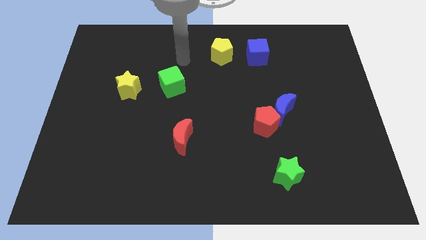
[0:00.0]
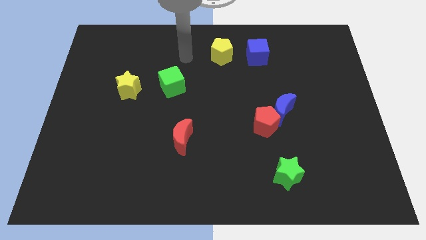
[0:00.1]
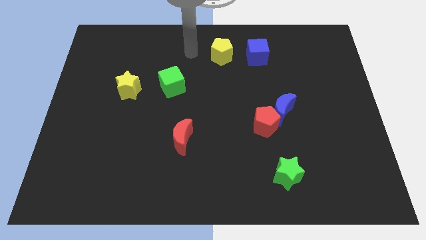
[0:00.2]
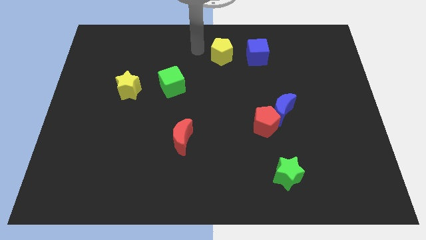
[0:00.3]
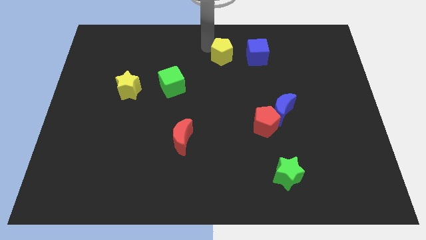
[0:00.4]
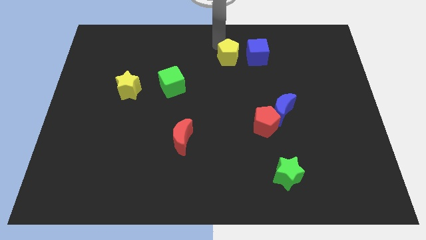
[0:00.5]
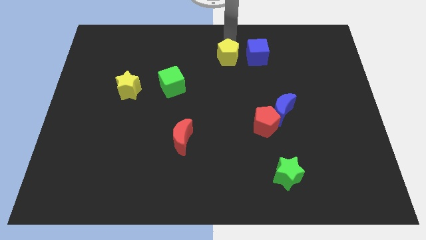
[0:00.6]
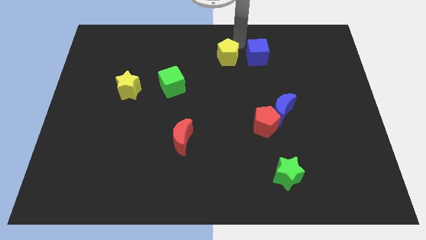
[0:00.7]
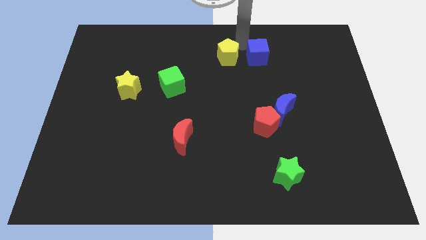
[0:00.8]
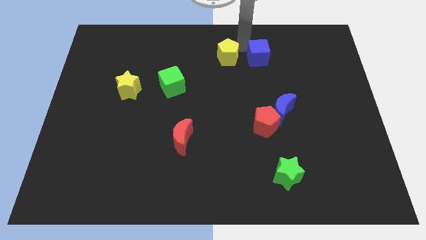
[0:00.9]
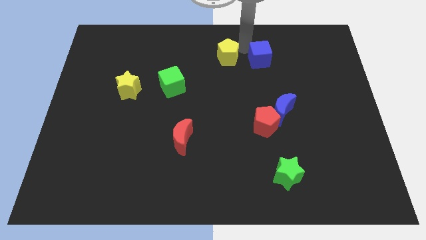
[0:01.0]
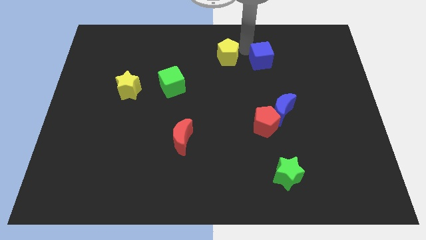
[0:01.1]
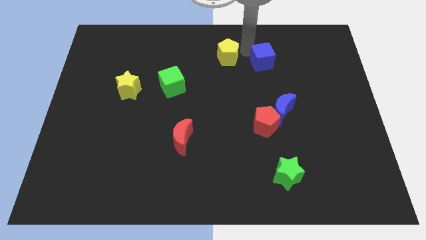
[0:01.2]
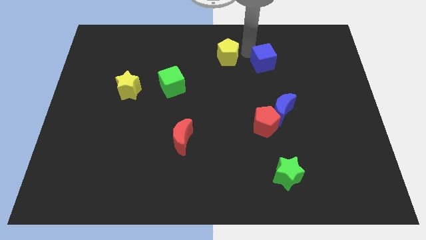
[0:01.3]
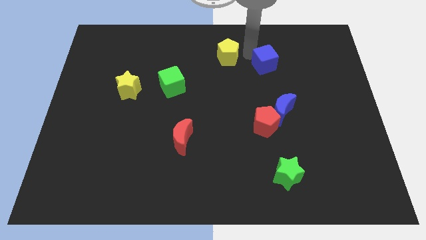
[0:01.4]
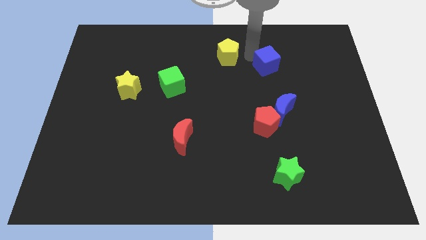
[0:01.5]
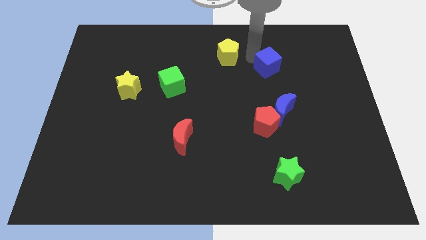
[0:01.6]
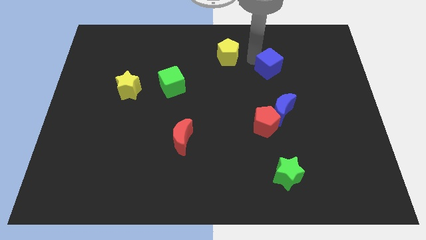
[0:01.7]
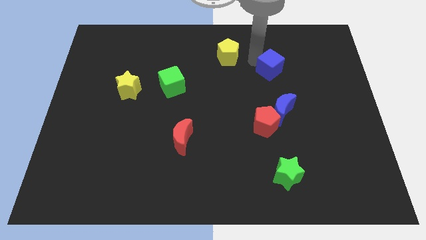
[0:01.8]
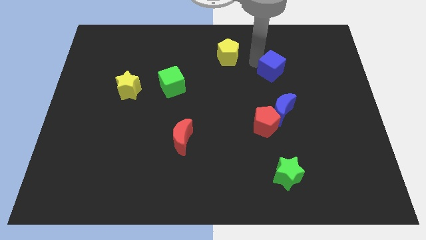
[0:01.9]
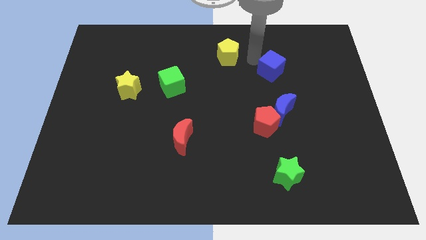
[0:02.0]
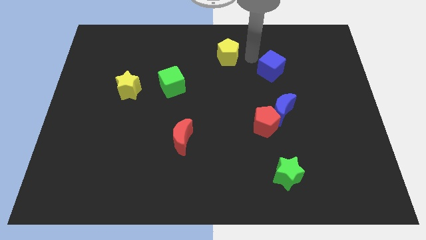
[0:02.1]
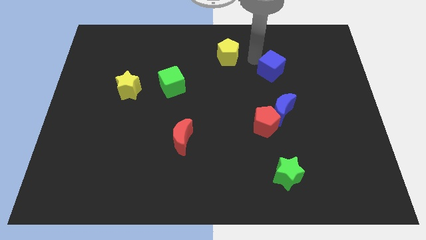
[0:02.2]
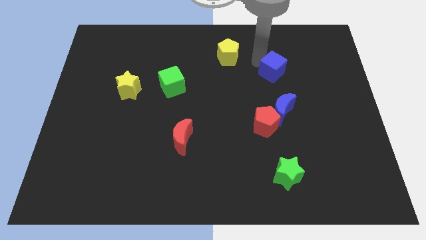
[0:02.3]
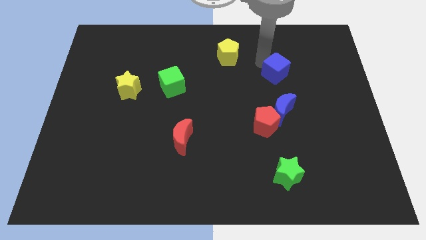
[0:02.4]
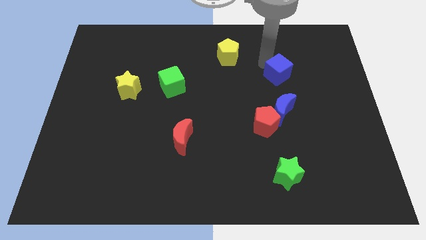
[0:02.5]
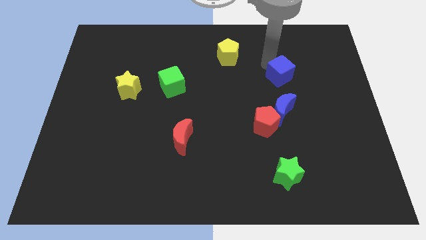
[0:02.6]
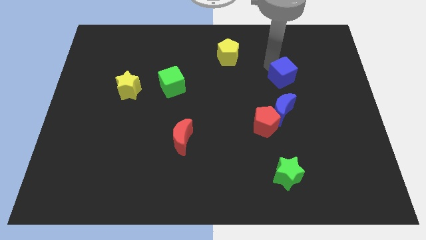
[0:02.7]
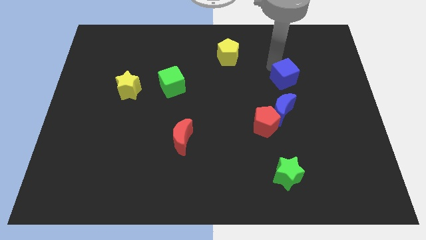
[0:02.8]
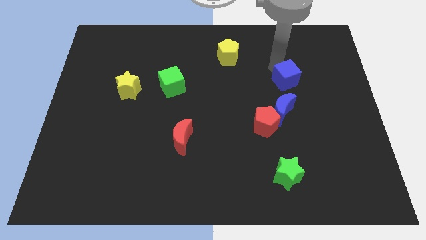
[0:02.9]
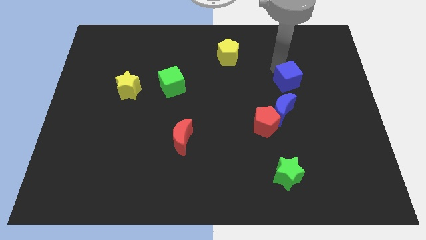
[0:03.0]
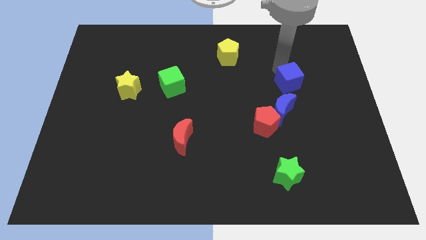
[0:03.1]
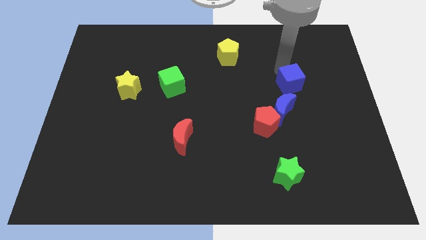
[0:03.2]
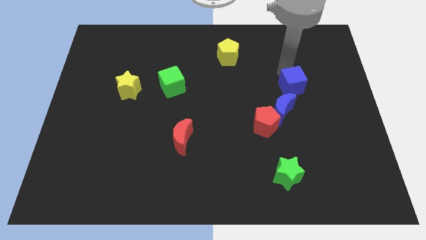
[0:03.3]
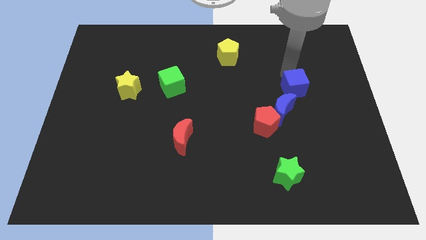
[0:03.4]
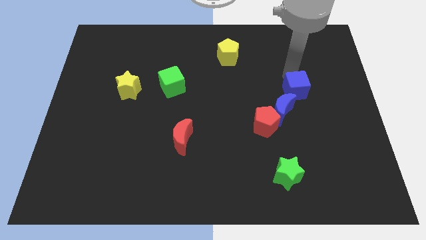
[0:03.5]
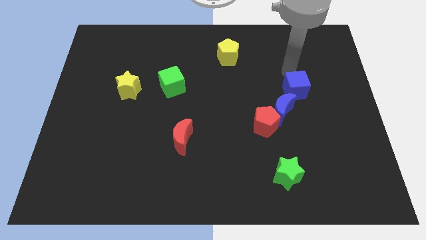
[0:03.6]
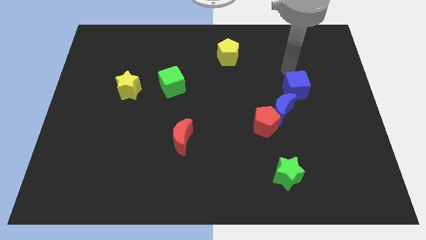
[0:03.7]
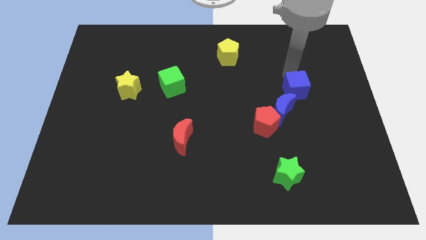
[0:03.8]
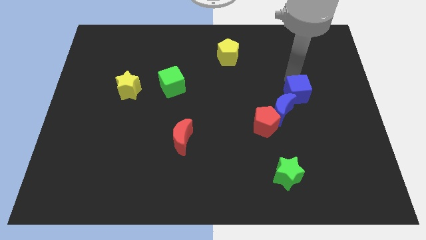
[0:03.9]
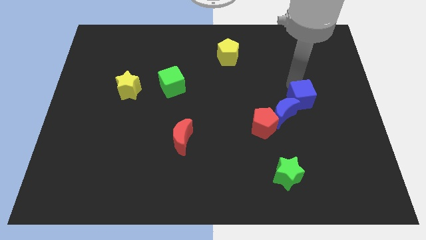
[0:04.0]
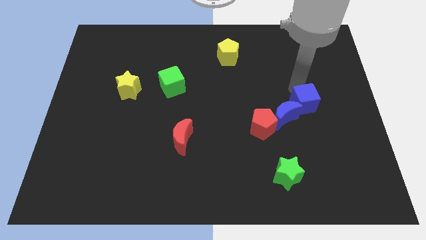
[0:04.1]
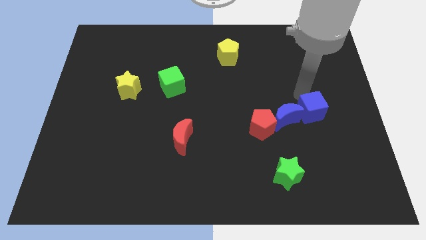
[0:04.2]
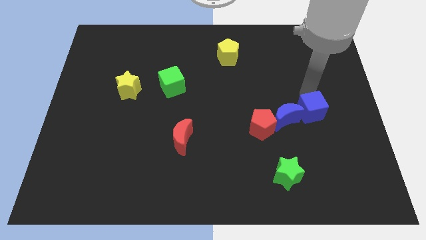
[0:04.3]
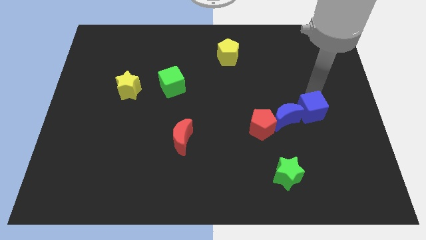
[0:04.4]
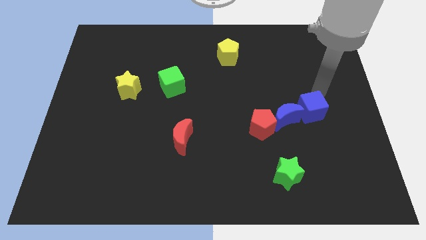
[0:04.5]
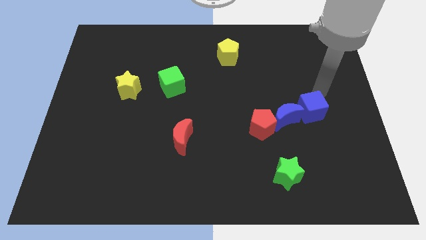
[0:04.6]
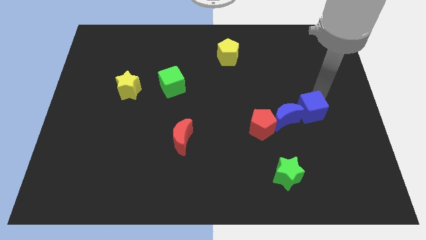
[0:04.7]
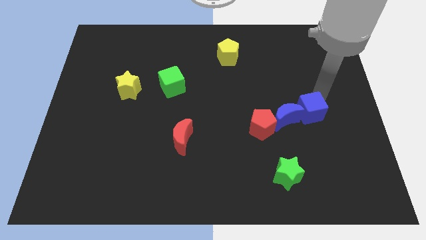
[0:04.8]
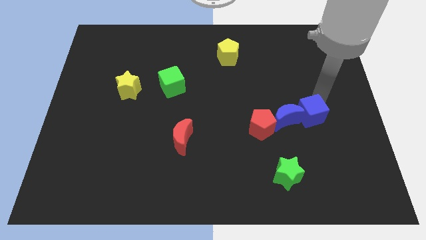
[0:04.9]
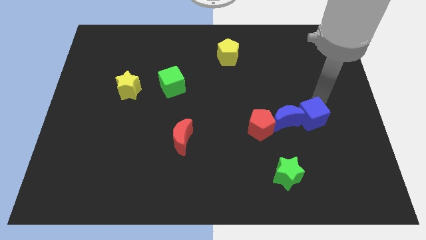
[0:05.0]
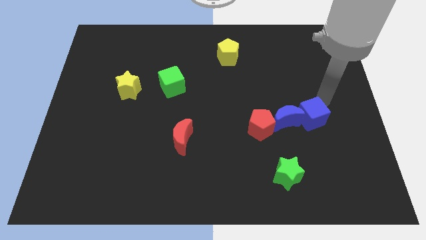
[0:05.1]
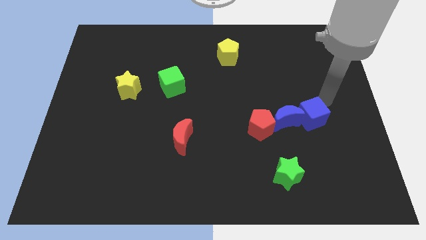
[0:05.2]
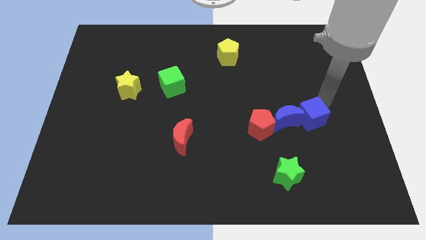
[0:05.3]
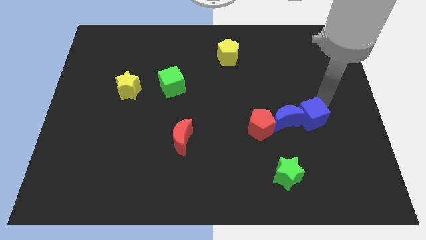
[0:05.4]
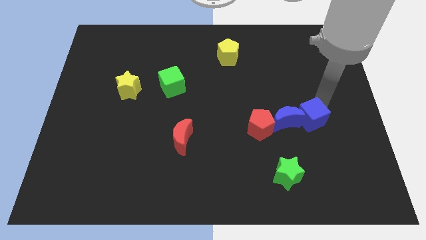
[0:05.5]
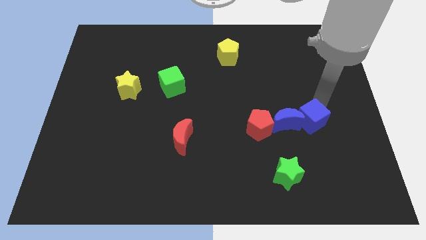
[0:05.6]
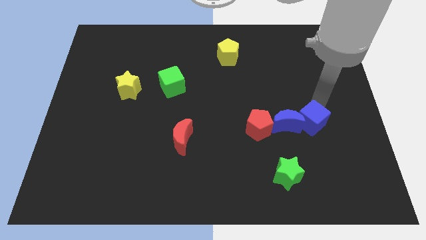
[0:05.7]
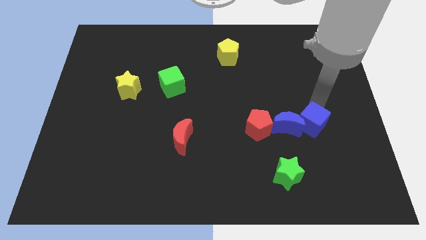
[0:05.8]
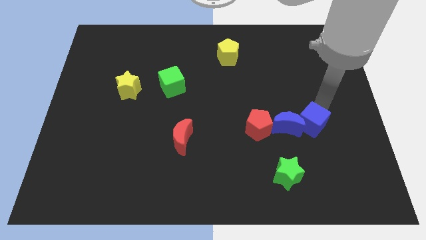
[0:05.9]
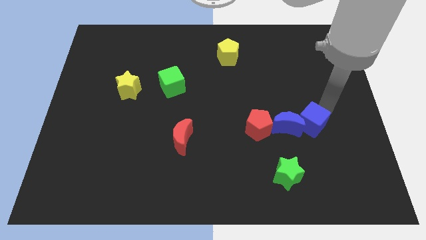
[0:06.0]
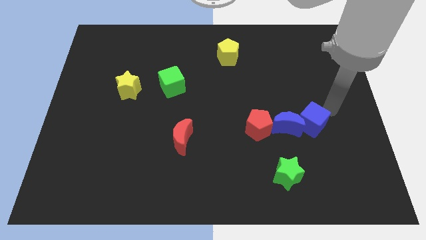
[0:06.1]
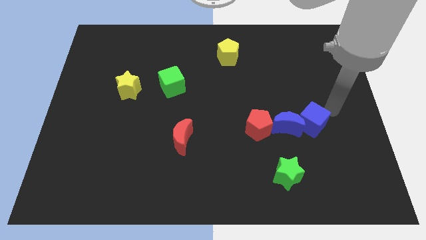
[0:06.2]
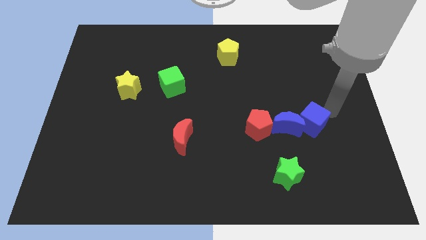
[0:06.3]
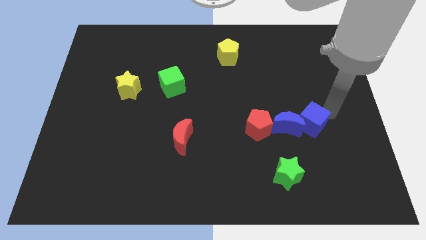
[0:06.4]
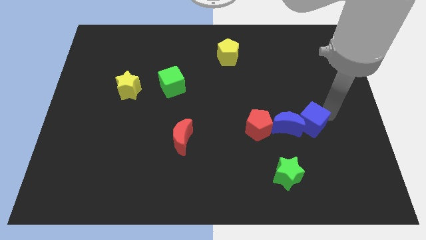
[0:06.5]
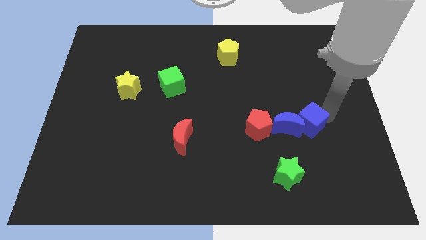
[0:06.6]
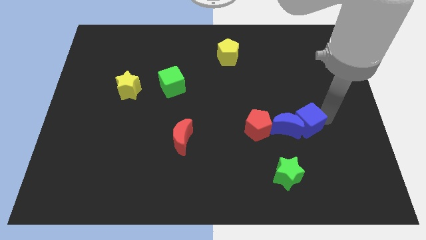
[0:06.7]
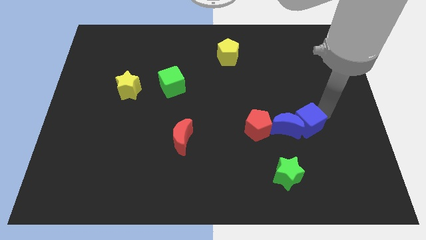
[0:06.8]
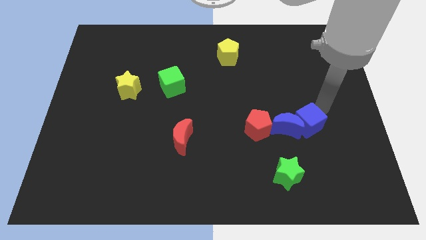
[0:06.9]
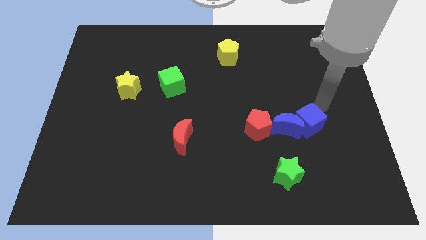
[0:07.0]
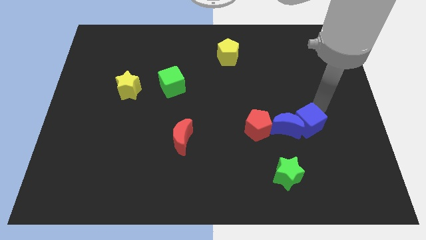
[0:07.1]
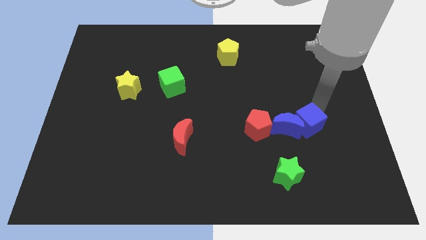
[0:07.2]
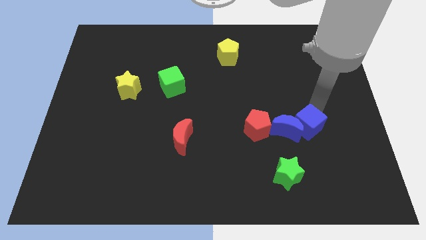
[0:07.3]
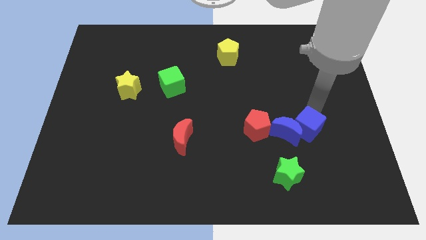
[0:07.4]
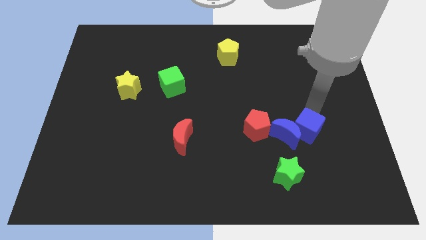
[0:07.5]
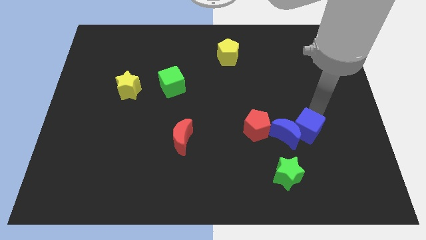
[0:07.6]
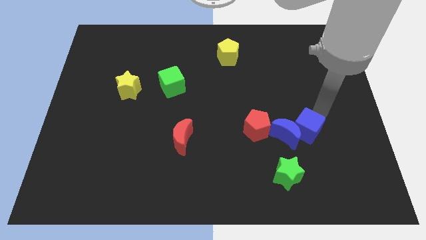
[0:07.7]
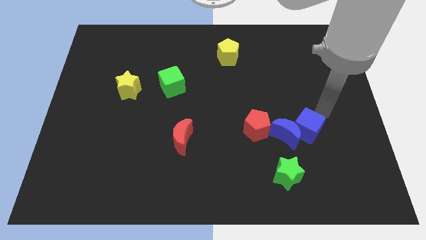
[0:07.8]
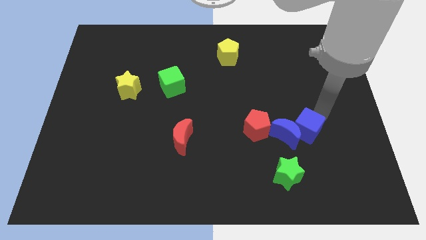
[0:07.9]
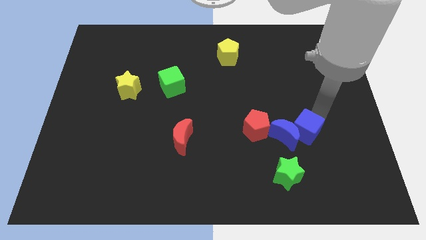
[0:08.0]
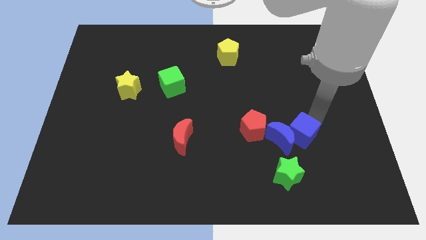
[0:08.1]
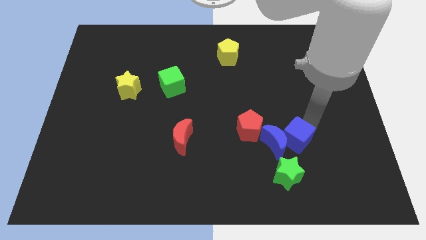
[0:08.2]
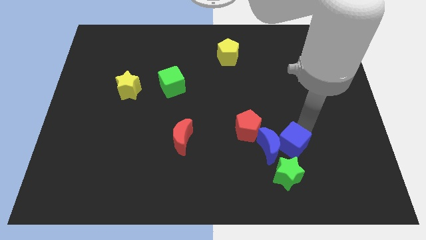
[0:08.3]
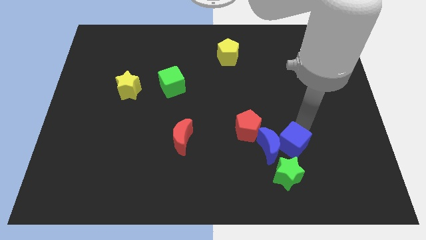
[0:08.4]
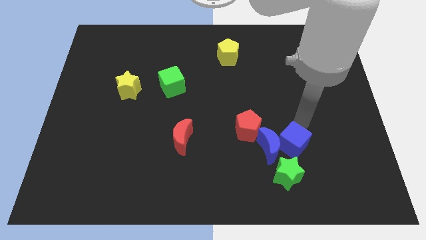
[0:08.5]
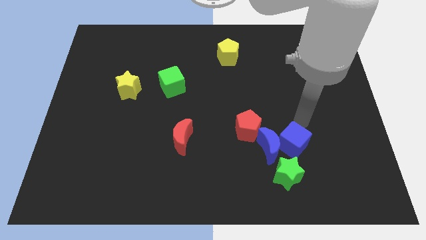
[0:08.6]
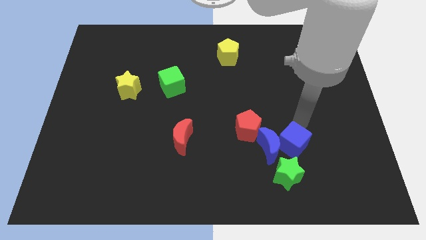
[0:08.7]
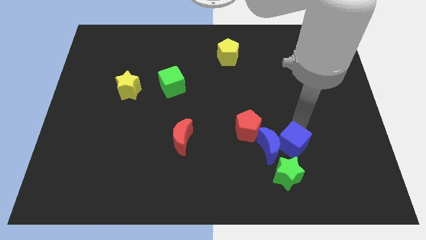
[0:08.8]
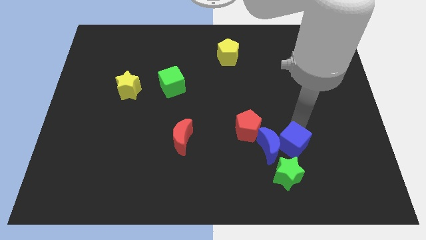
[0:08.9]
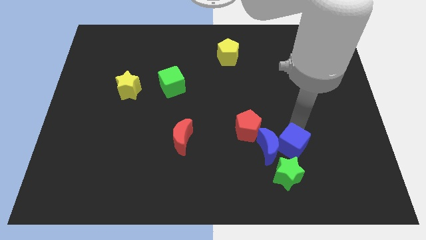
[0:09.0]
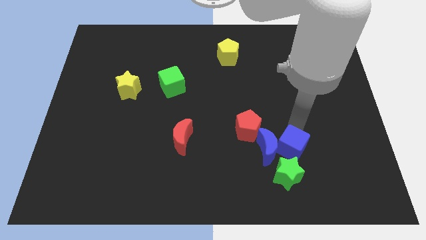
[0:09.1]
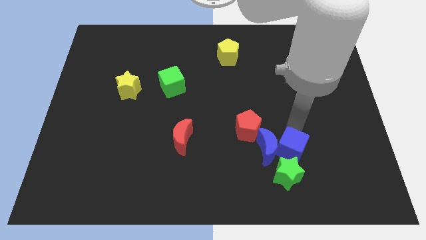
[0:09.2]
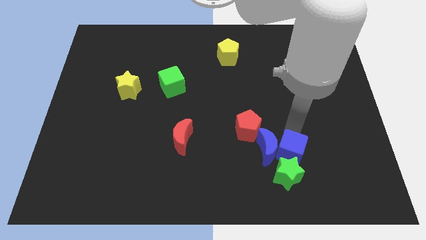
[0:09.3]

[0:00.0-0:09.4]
put the blue cube close to the green star
